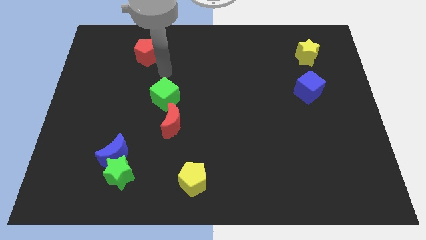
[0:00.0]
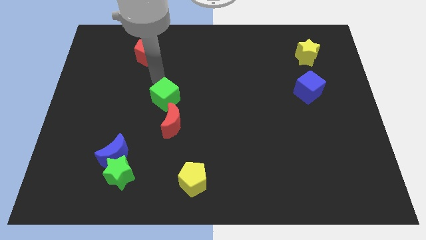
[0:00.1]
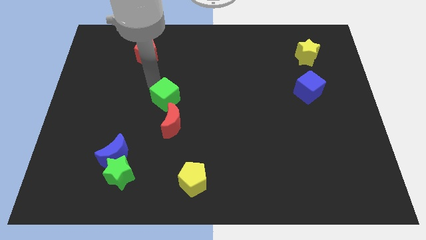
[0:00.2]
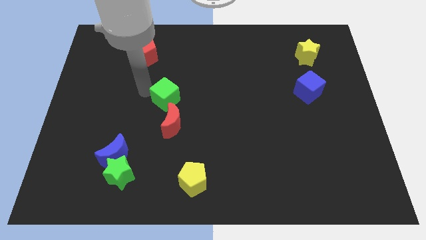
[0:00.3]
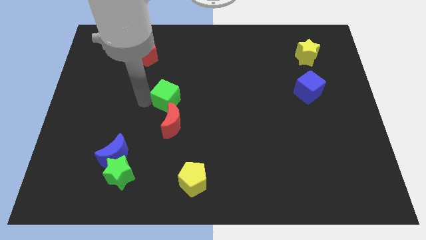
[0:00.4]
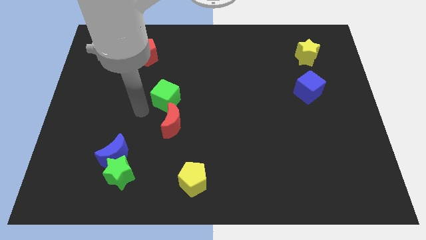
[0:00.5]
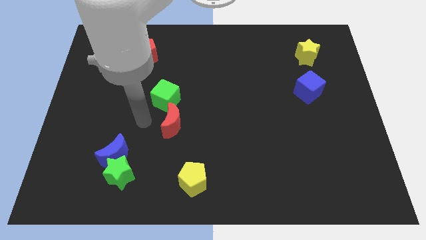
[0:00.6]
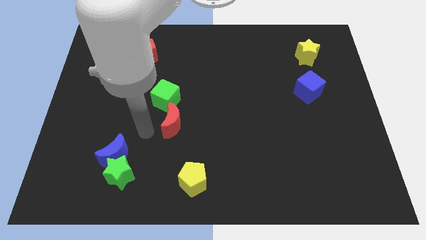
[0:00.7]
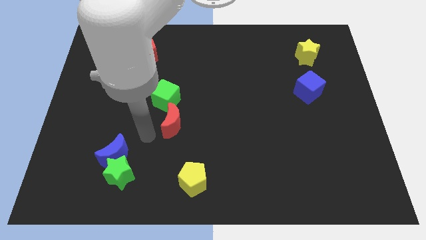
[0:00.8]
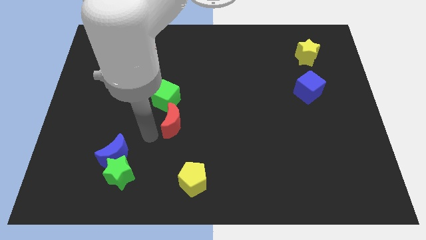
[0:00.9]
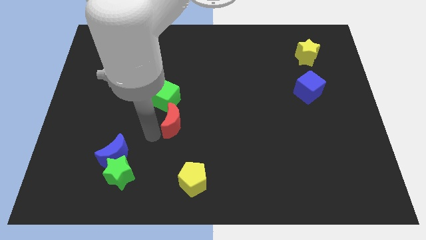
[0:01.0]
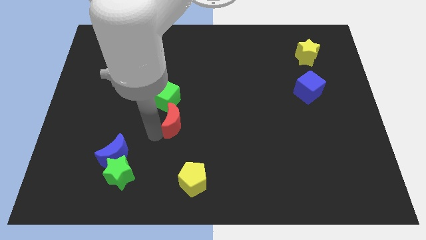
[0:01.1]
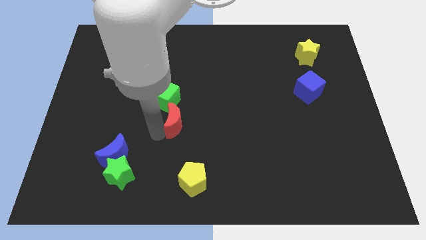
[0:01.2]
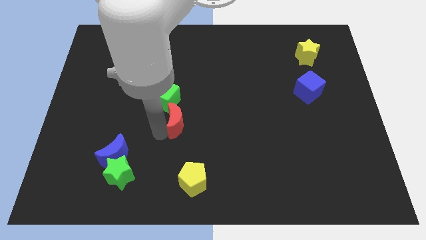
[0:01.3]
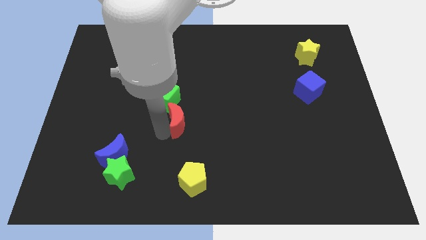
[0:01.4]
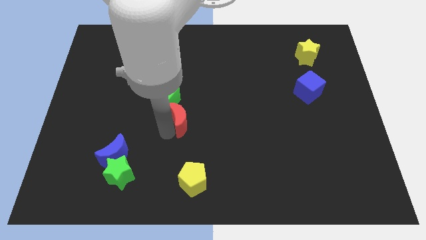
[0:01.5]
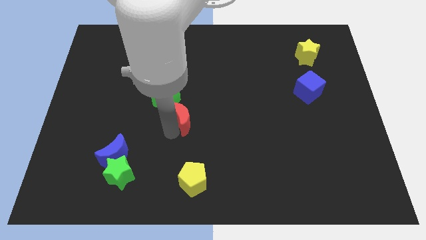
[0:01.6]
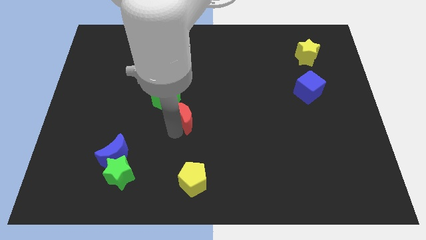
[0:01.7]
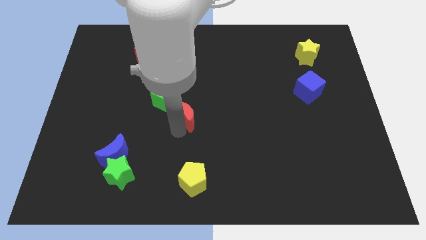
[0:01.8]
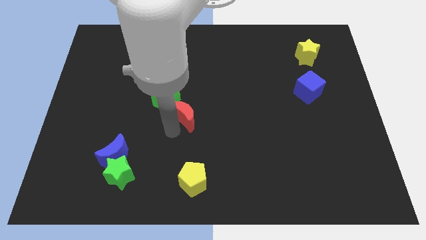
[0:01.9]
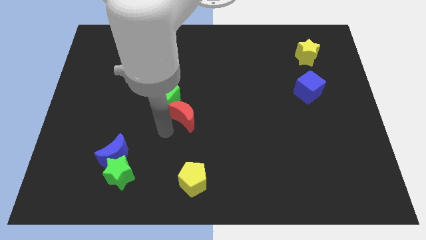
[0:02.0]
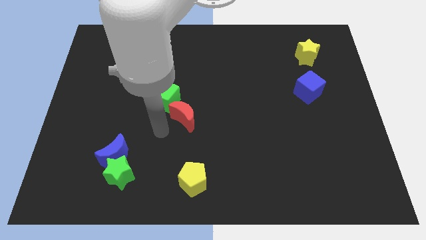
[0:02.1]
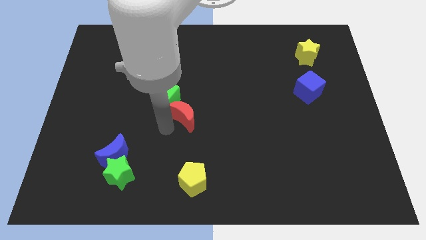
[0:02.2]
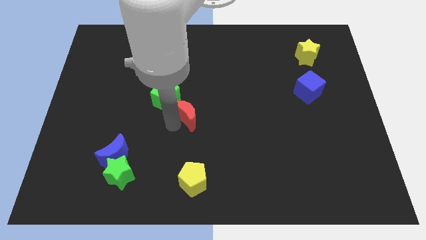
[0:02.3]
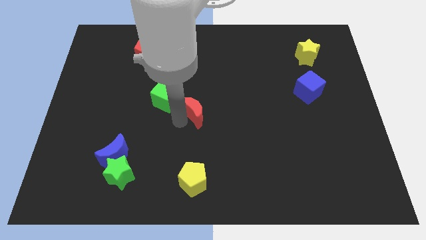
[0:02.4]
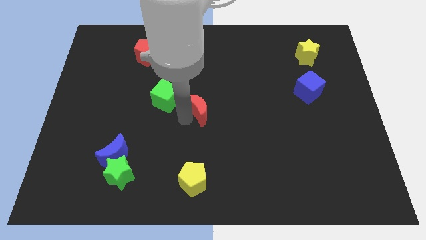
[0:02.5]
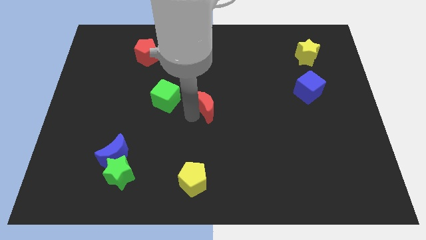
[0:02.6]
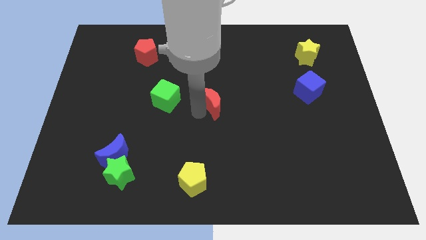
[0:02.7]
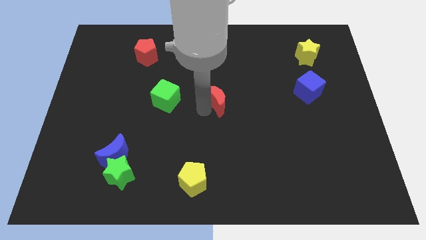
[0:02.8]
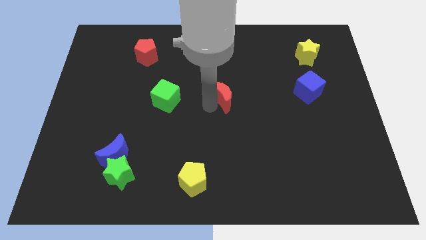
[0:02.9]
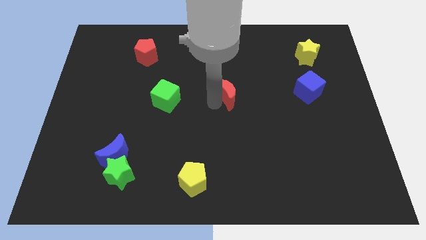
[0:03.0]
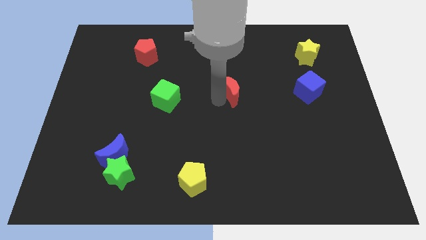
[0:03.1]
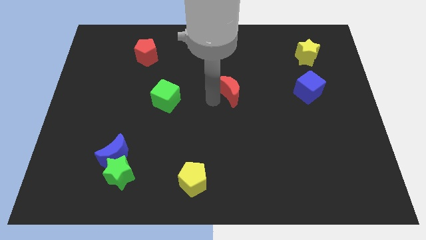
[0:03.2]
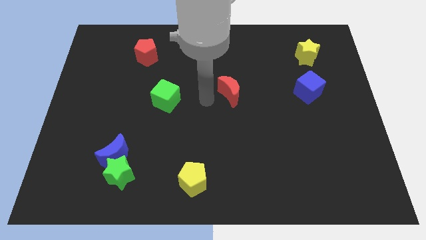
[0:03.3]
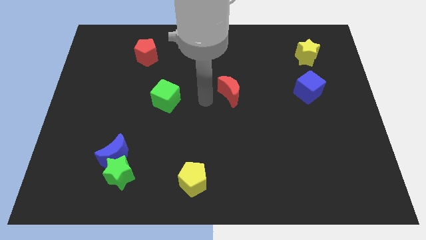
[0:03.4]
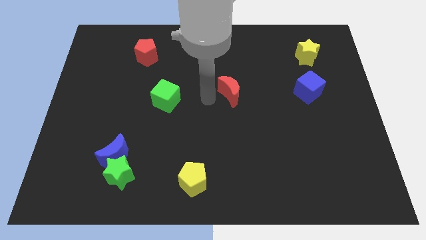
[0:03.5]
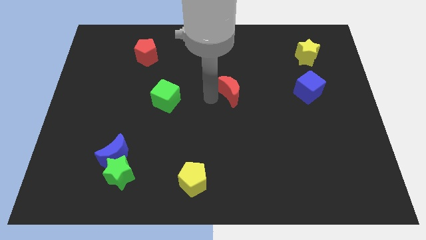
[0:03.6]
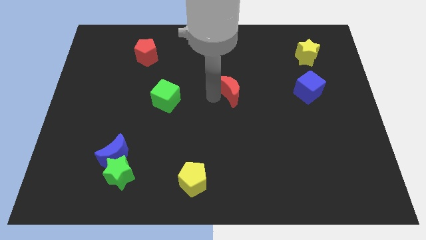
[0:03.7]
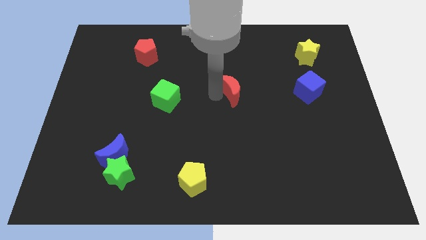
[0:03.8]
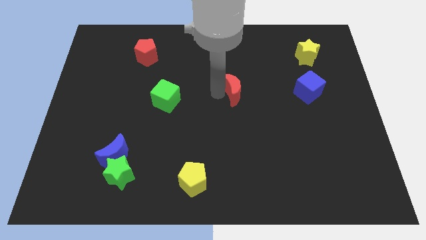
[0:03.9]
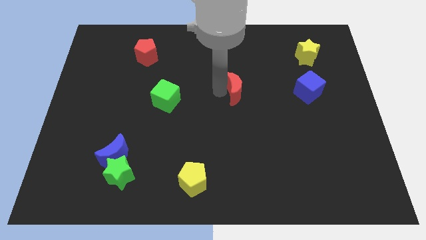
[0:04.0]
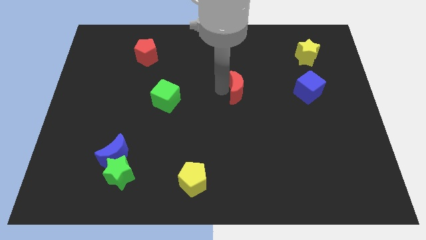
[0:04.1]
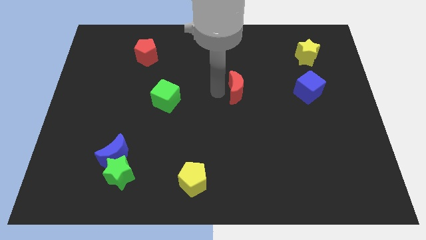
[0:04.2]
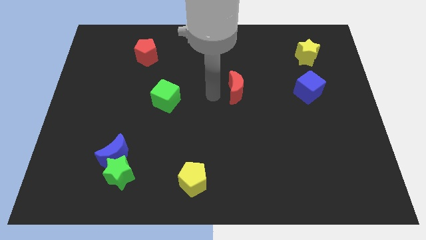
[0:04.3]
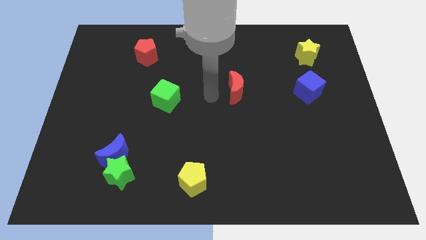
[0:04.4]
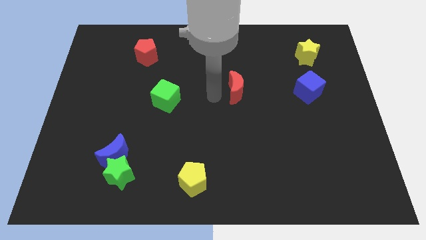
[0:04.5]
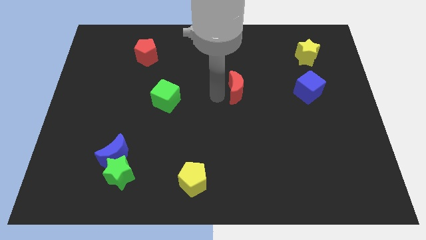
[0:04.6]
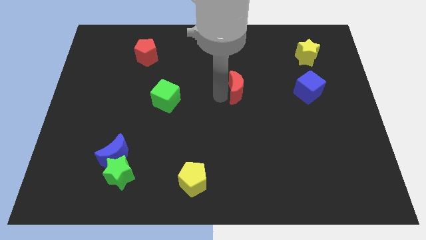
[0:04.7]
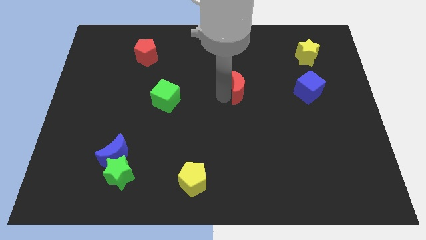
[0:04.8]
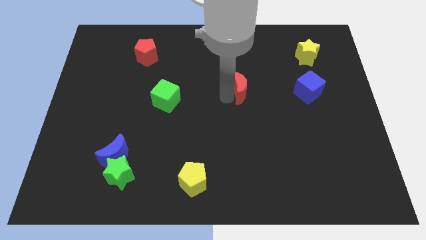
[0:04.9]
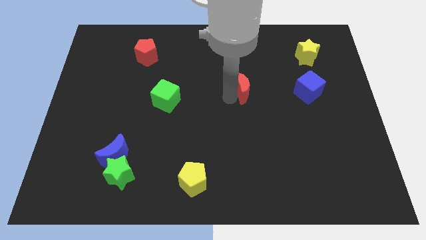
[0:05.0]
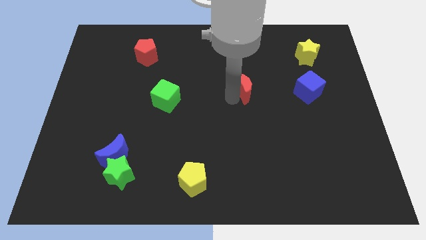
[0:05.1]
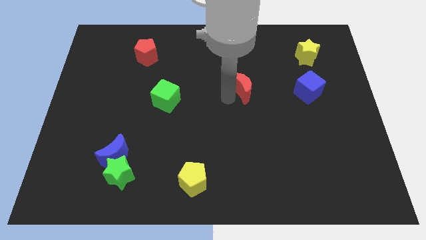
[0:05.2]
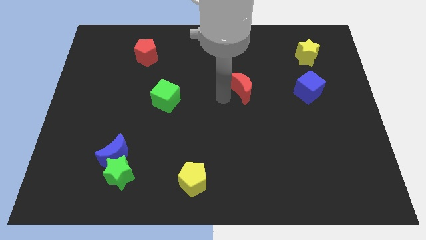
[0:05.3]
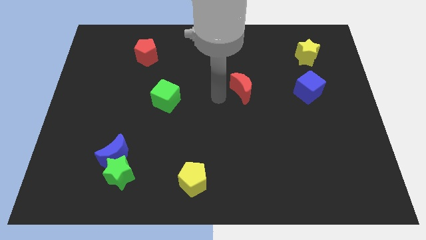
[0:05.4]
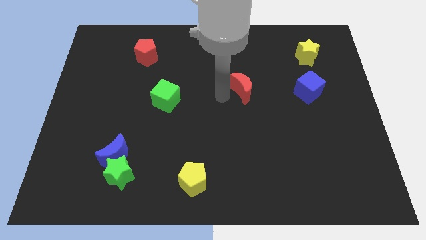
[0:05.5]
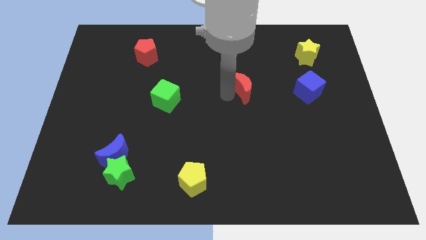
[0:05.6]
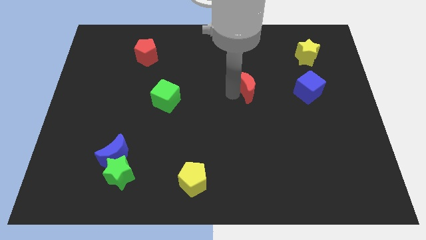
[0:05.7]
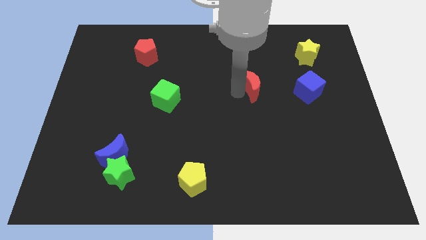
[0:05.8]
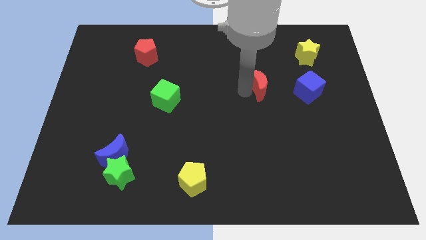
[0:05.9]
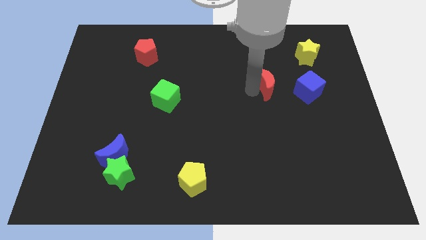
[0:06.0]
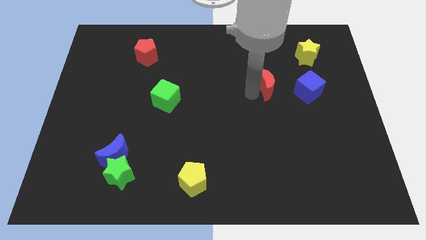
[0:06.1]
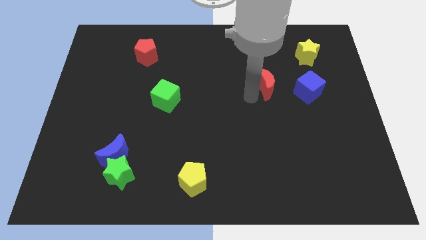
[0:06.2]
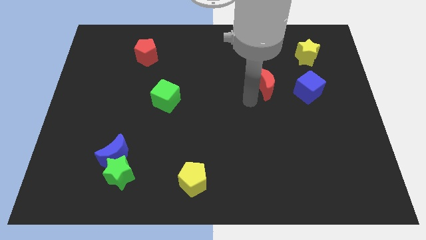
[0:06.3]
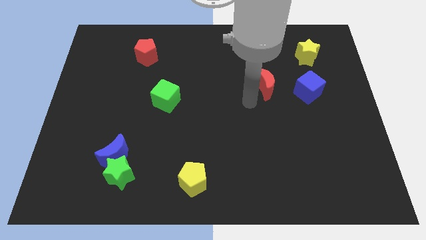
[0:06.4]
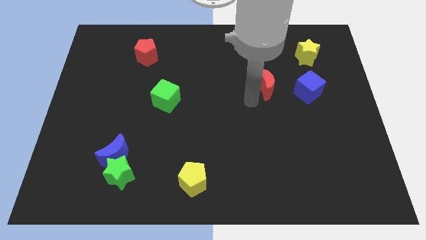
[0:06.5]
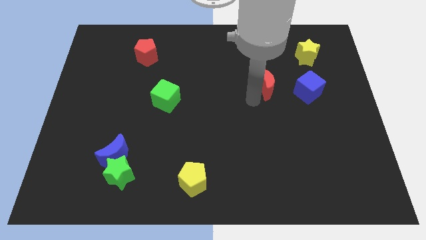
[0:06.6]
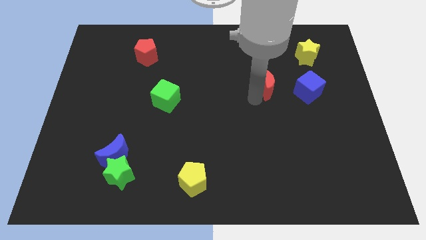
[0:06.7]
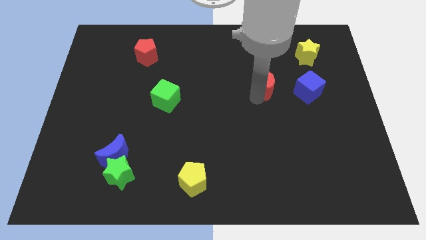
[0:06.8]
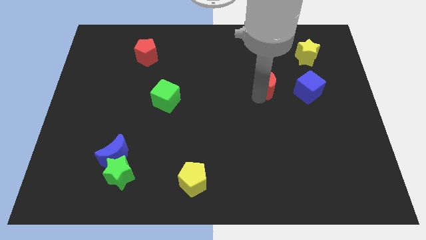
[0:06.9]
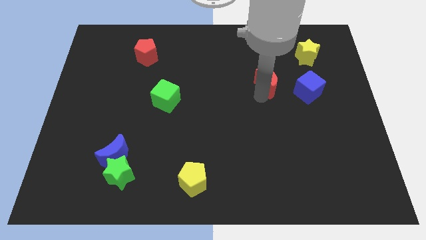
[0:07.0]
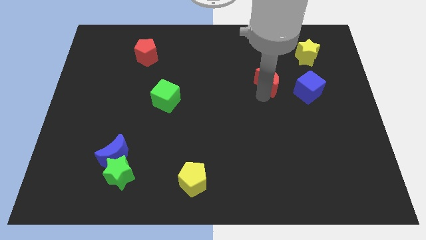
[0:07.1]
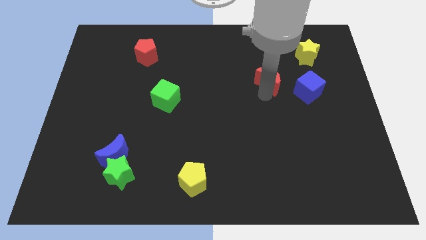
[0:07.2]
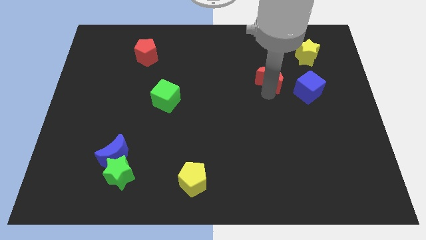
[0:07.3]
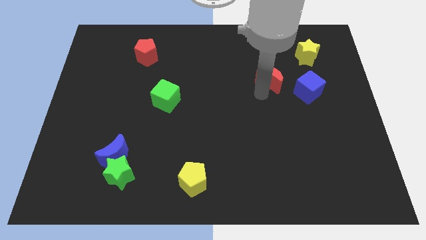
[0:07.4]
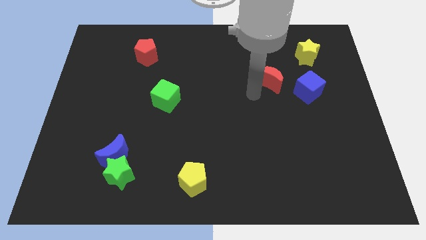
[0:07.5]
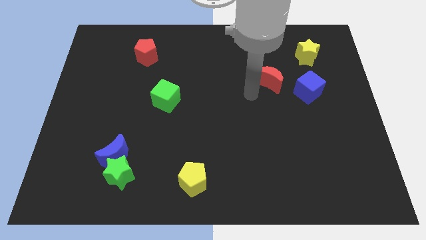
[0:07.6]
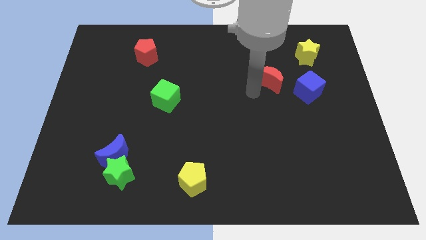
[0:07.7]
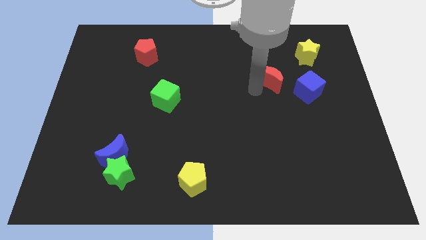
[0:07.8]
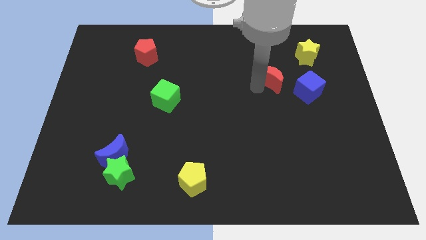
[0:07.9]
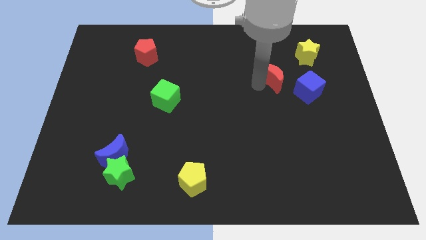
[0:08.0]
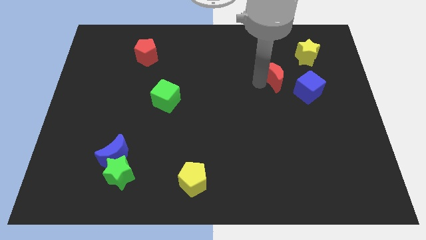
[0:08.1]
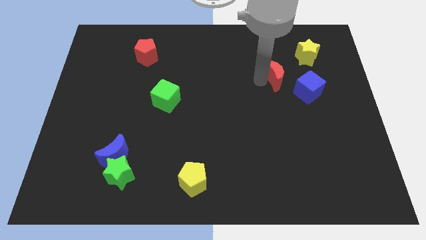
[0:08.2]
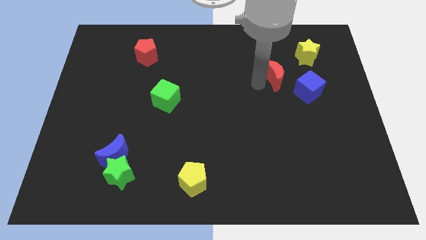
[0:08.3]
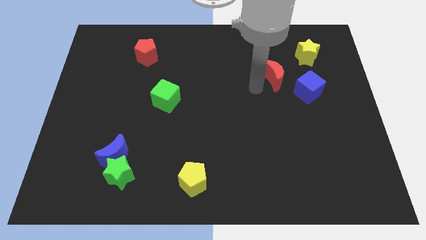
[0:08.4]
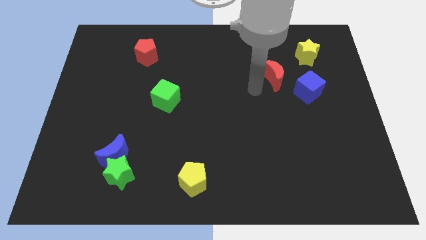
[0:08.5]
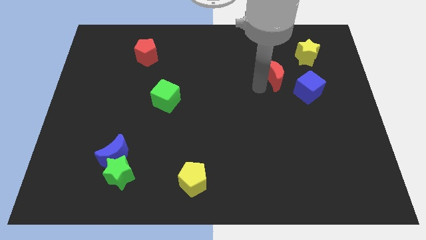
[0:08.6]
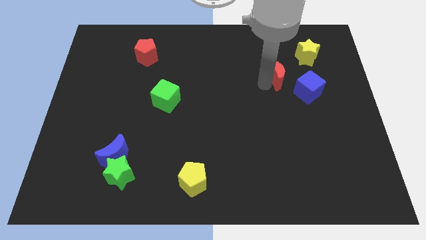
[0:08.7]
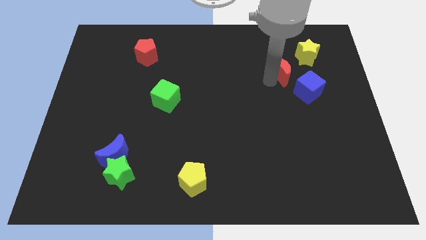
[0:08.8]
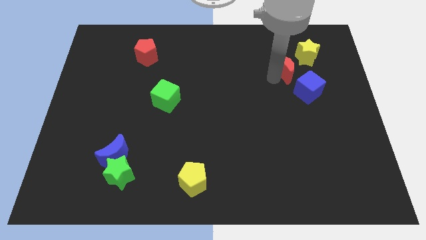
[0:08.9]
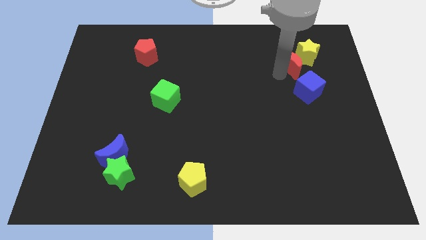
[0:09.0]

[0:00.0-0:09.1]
push the red moon to the yellow star
